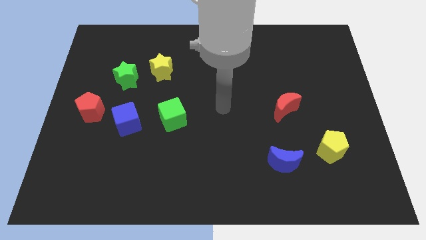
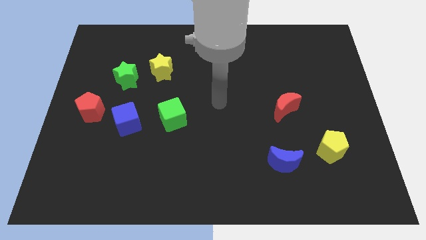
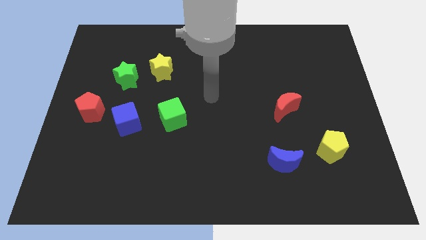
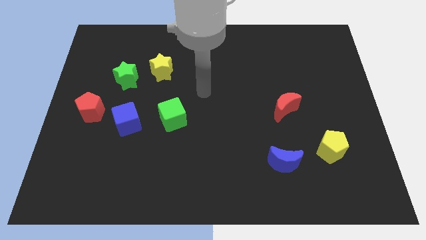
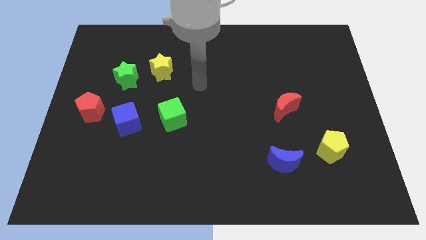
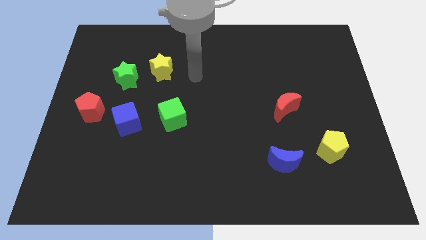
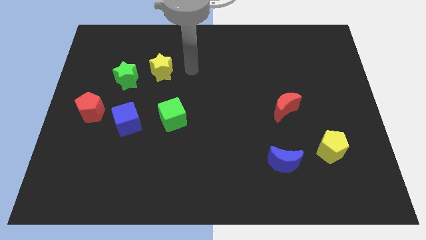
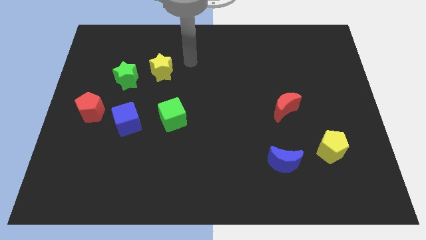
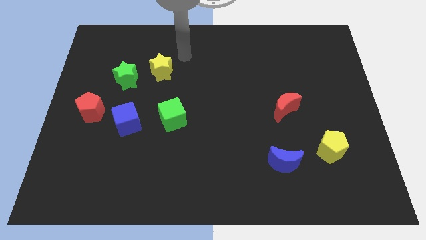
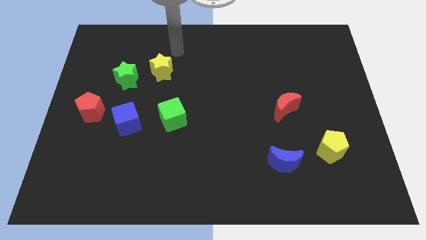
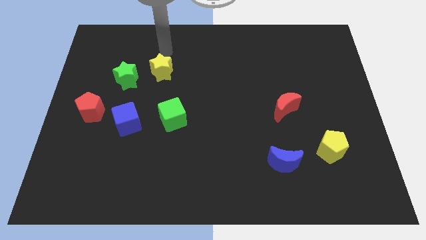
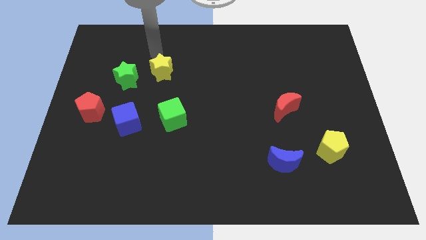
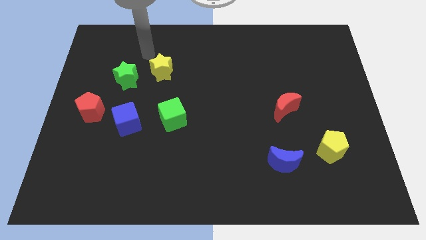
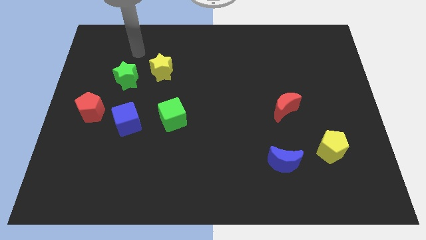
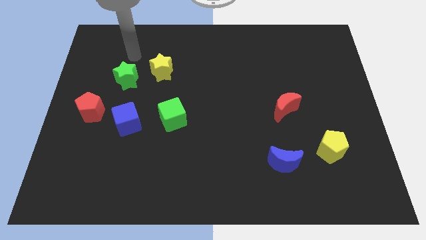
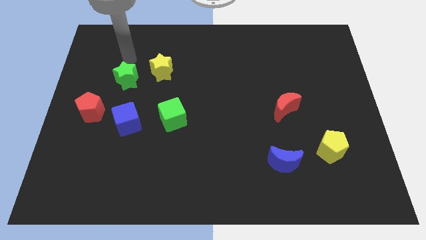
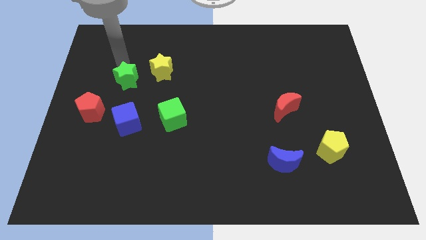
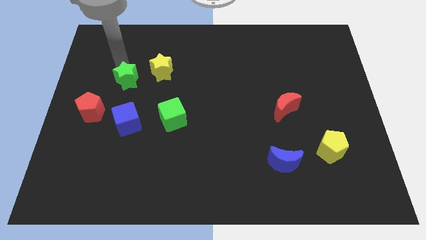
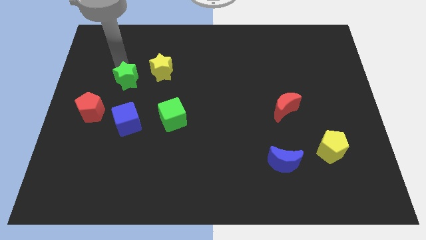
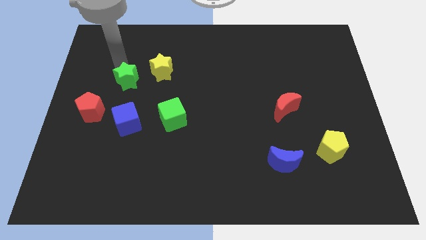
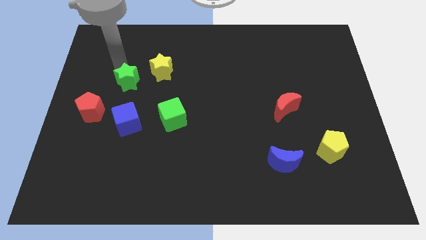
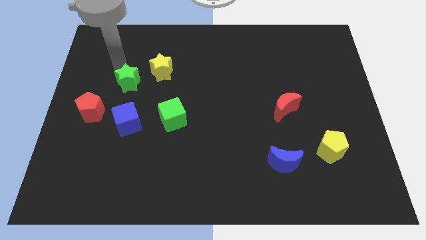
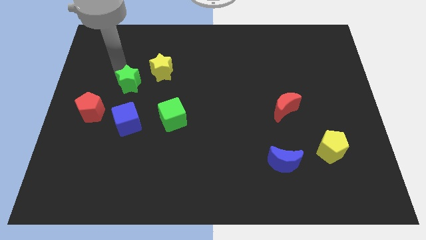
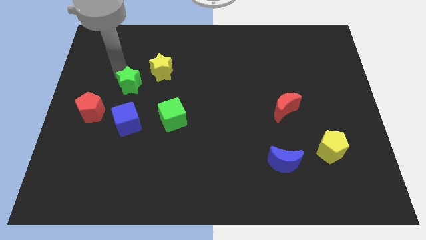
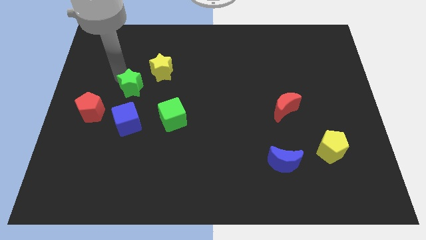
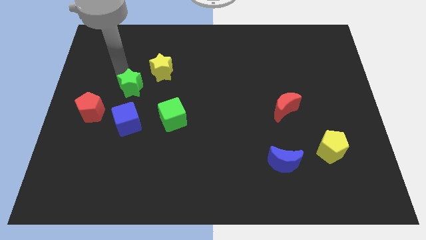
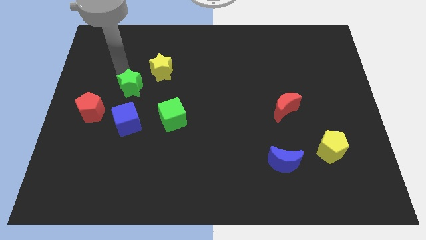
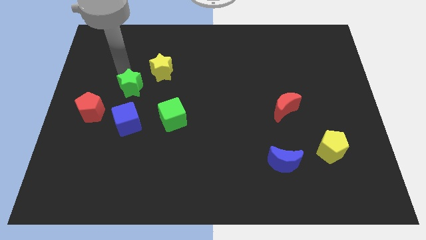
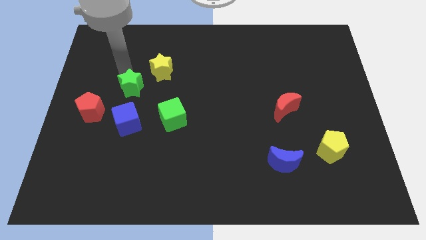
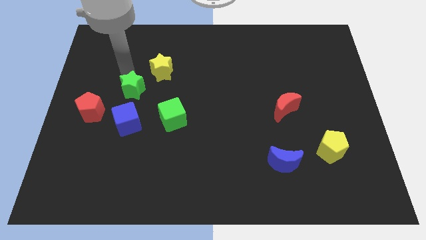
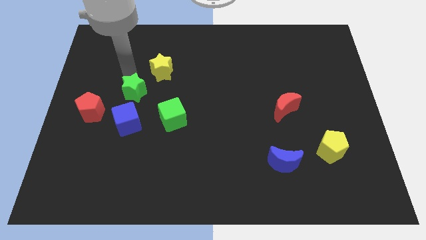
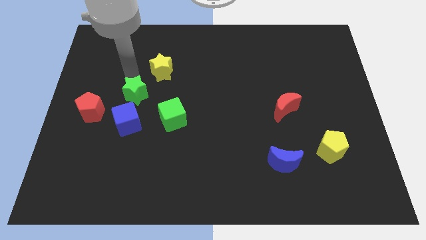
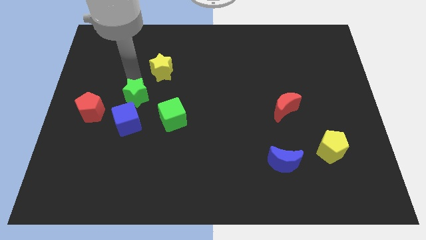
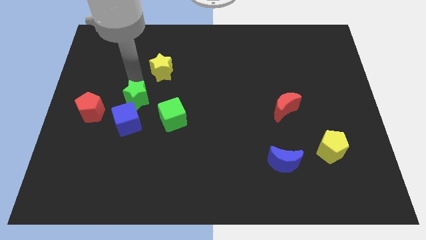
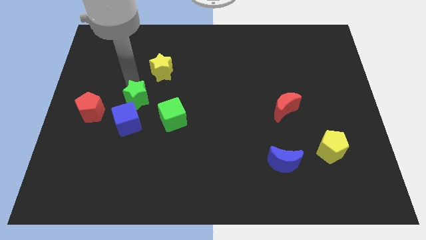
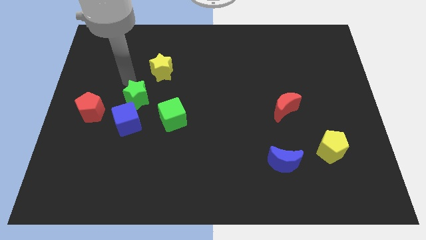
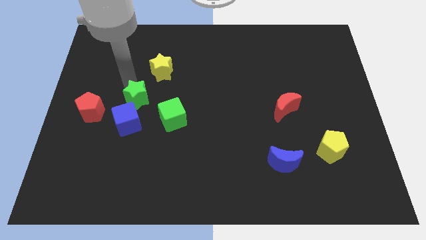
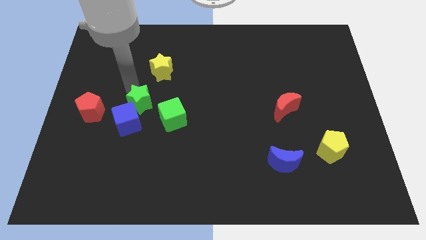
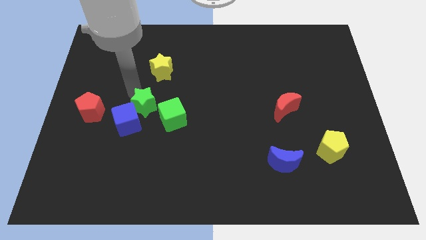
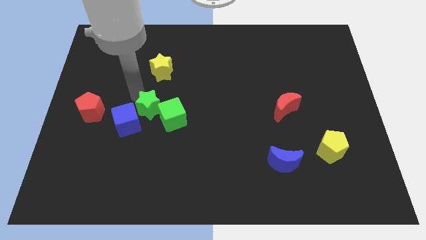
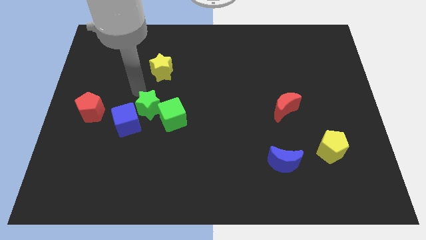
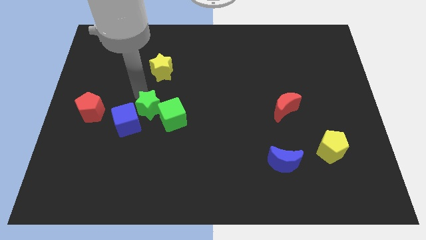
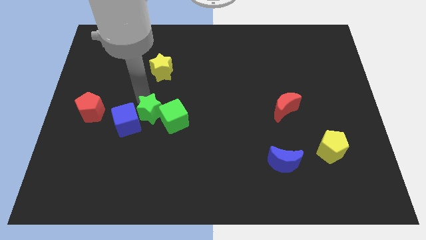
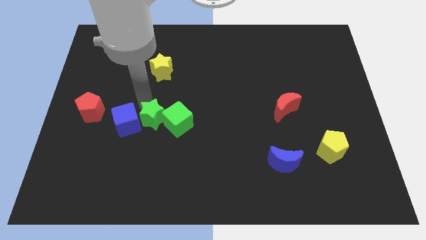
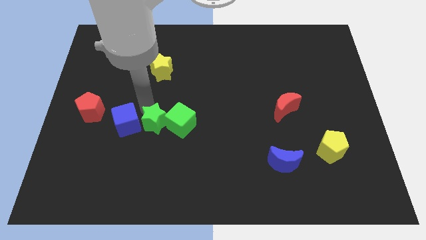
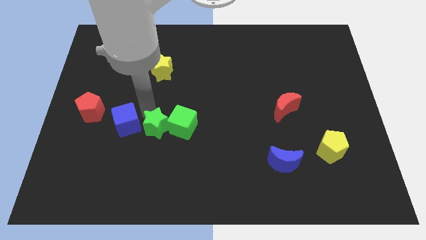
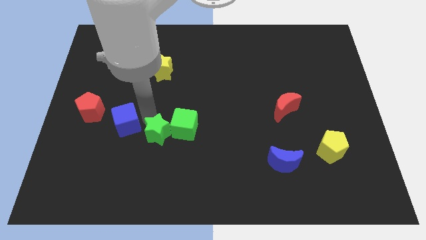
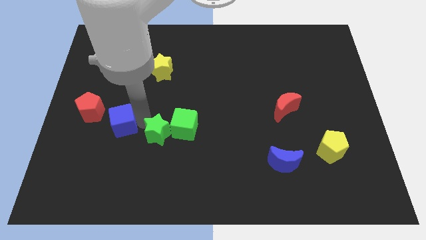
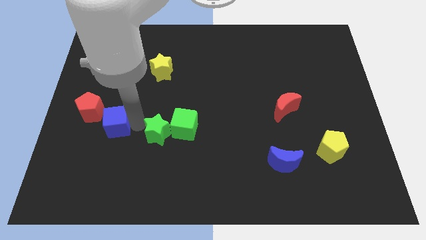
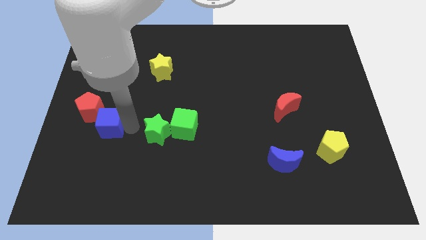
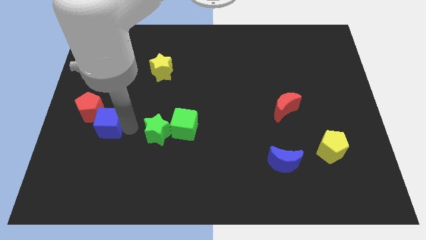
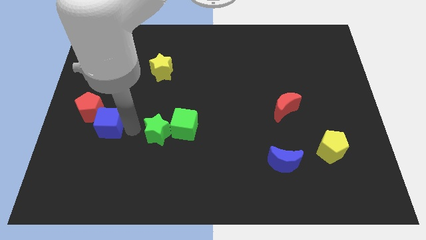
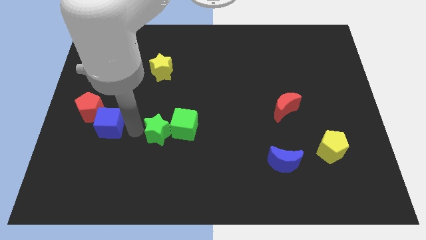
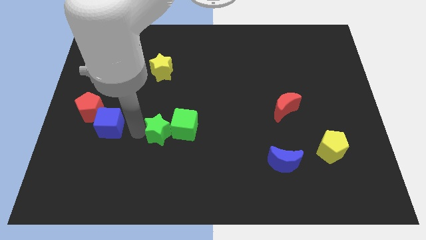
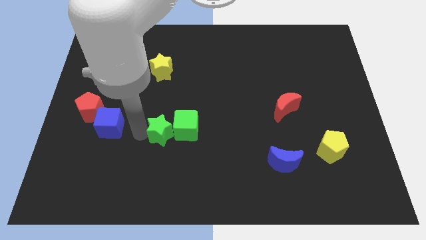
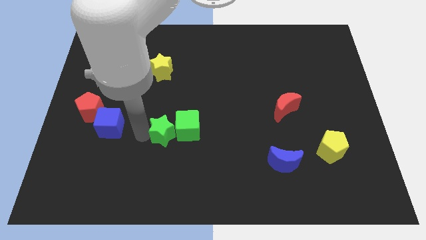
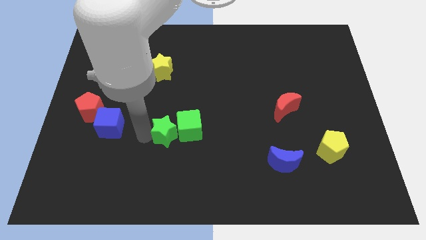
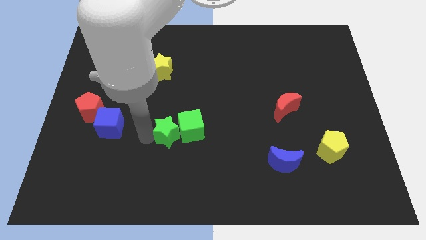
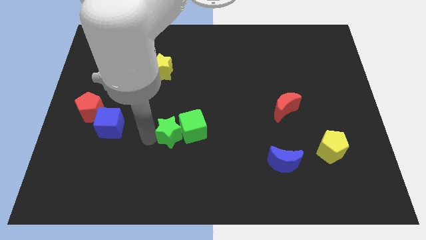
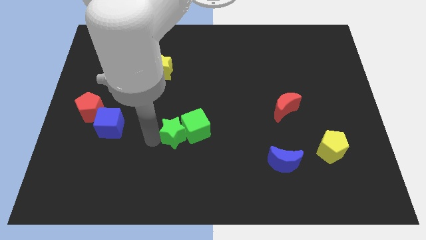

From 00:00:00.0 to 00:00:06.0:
move the green star down and right

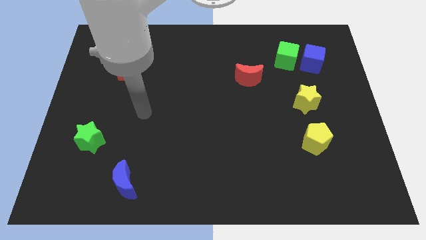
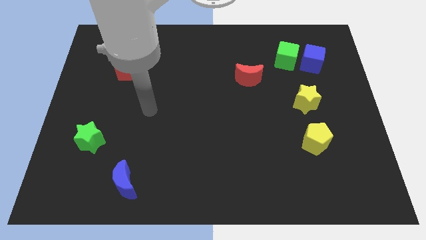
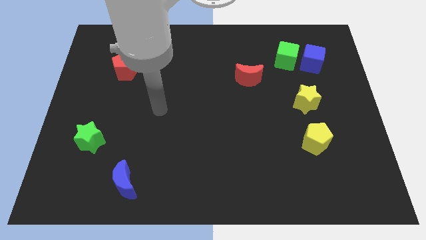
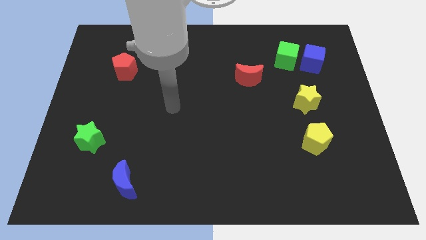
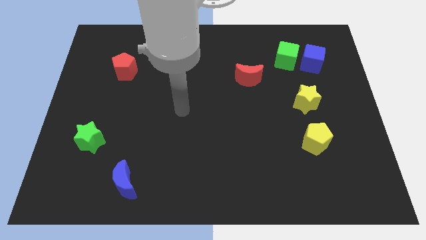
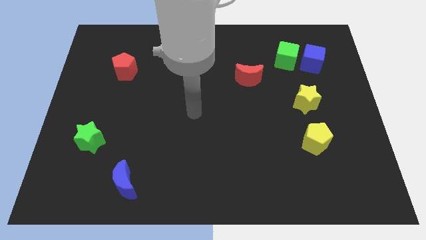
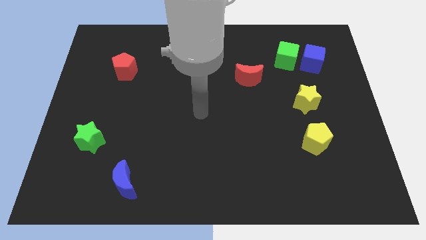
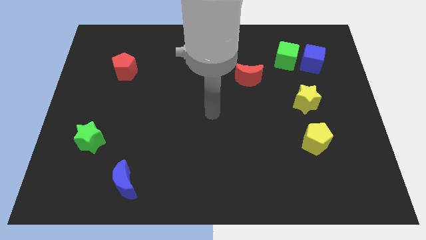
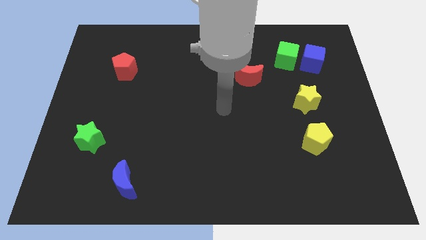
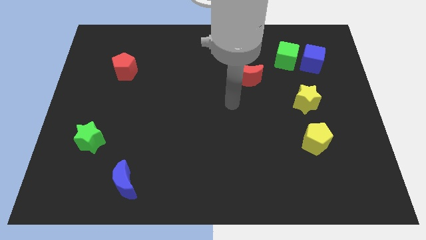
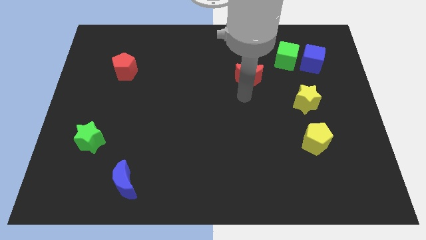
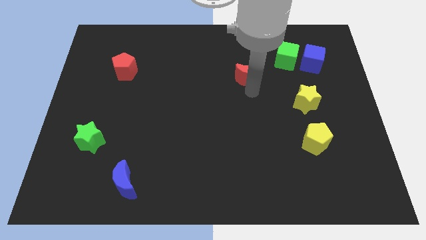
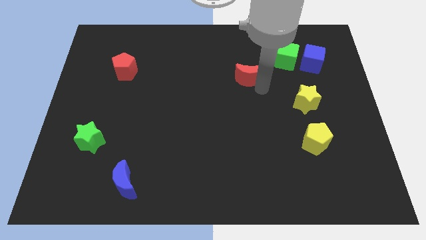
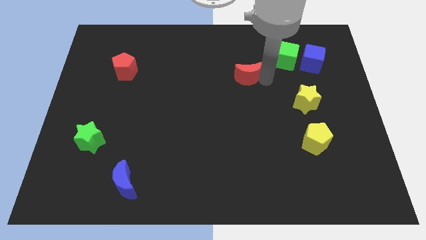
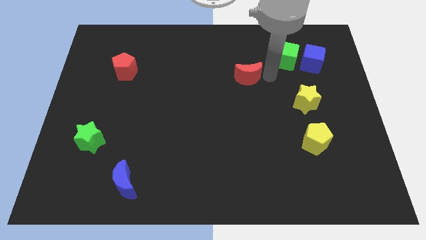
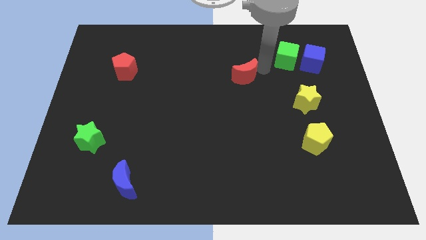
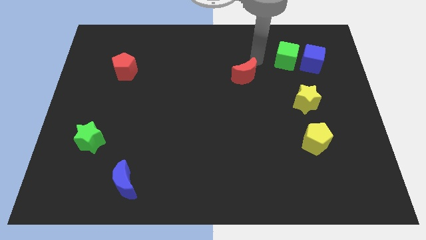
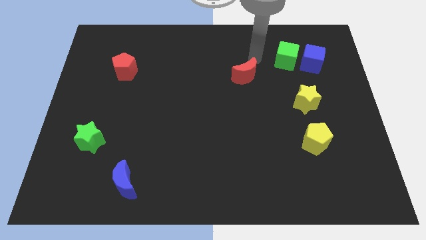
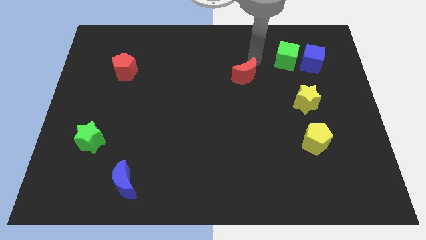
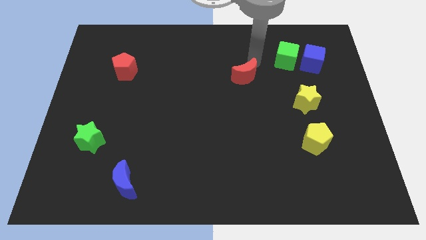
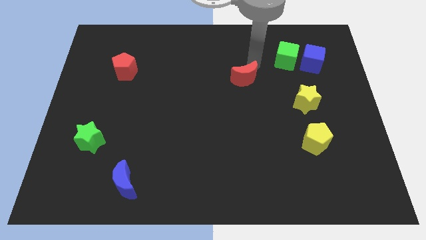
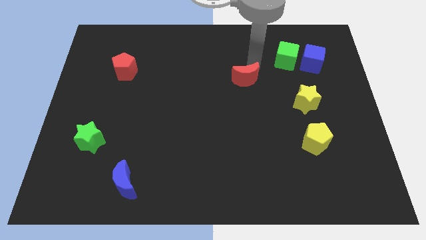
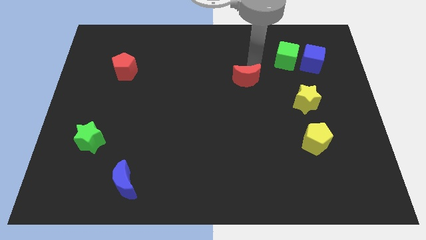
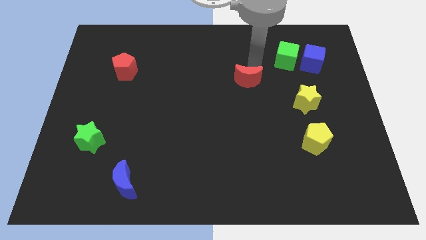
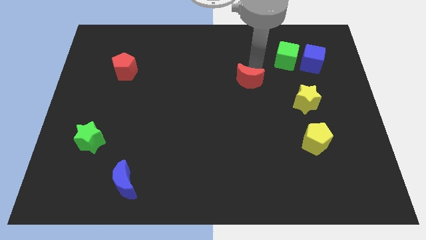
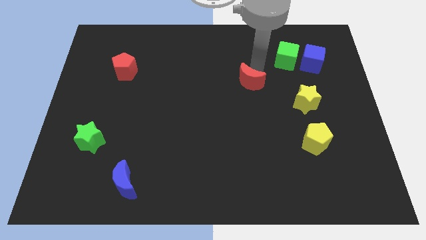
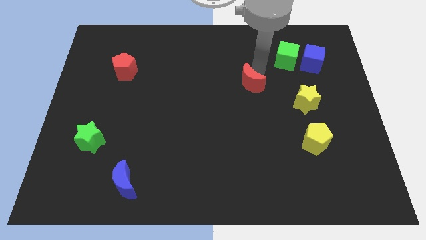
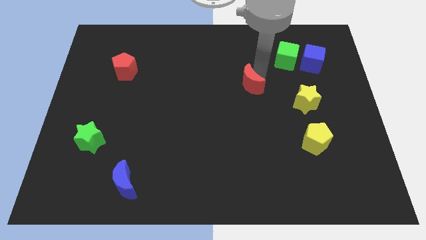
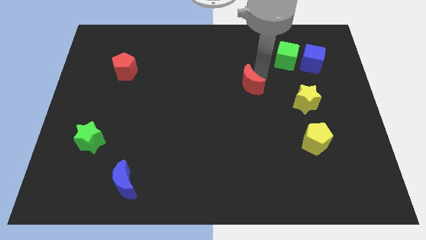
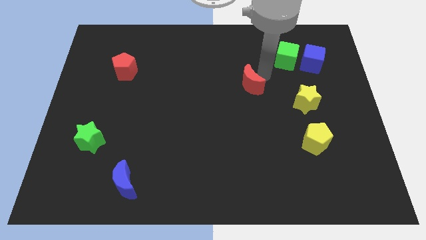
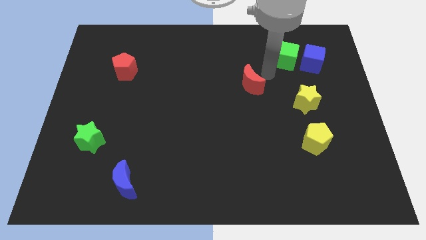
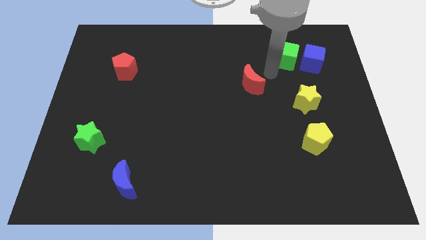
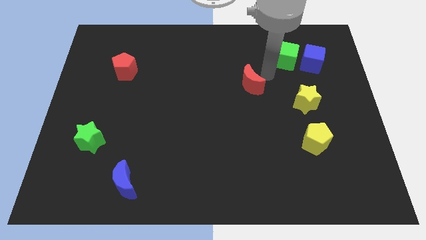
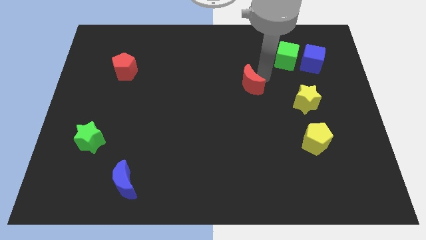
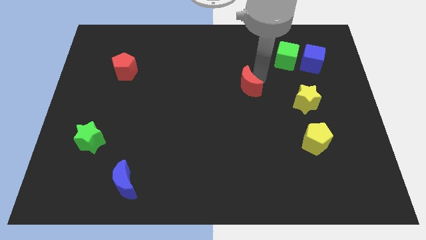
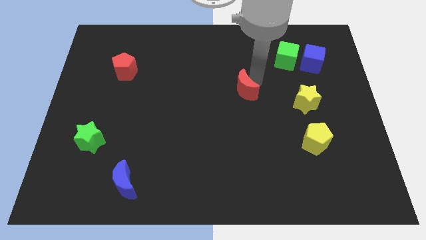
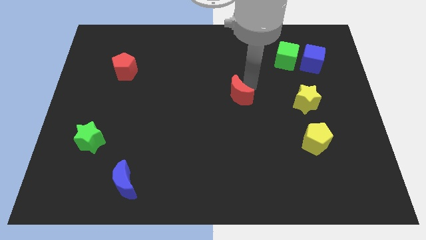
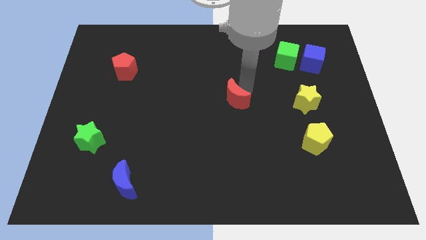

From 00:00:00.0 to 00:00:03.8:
slightly move the red moon diagonally down and left
